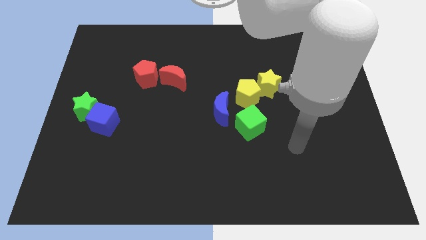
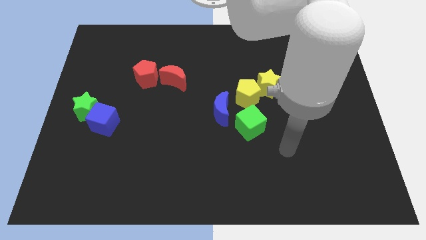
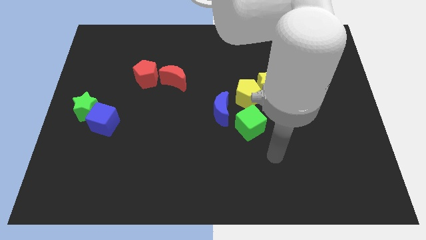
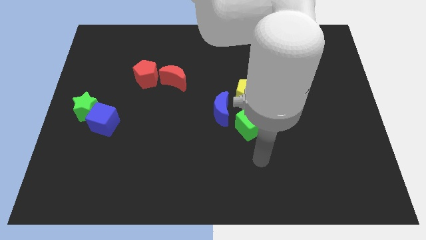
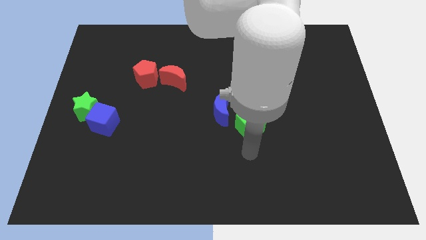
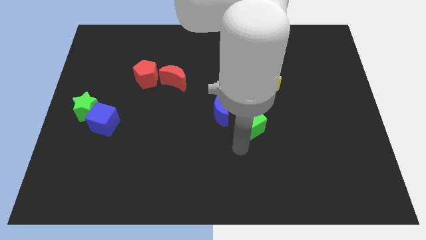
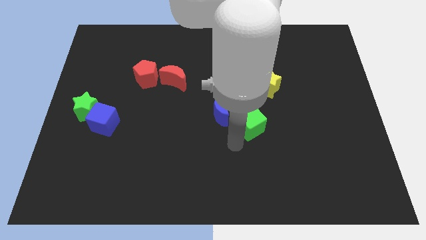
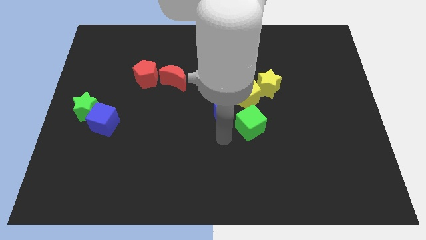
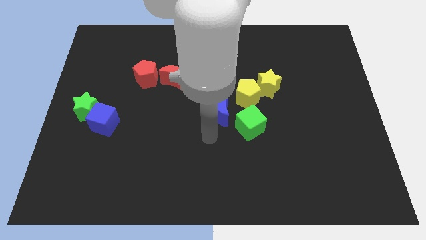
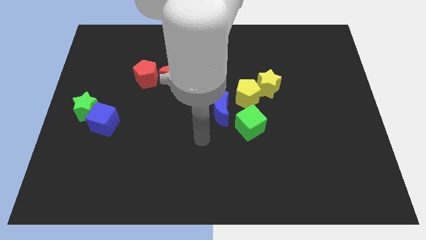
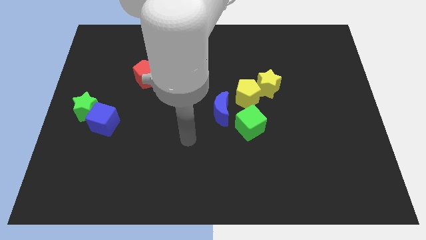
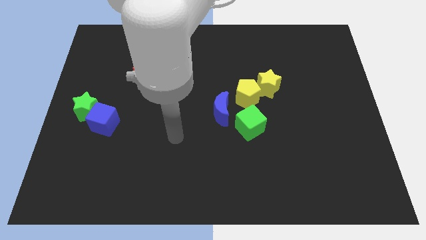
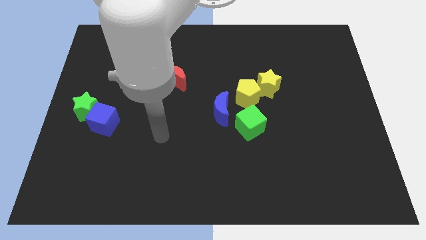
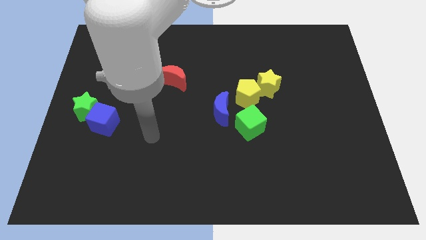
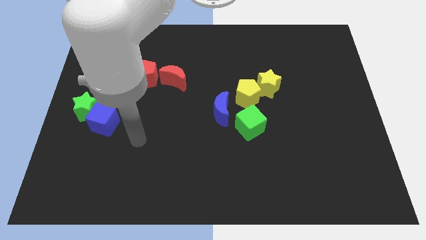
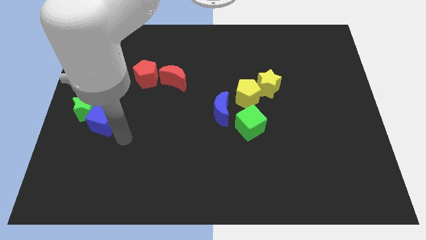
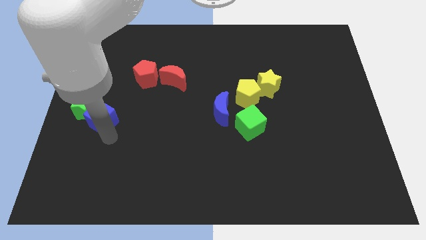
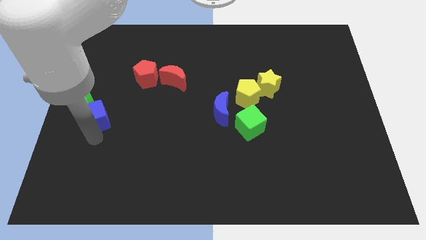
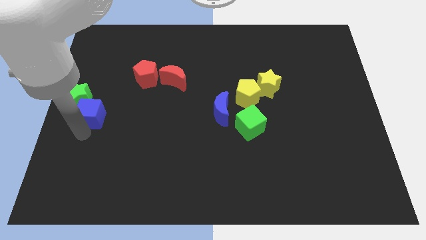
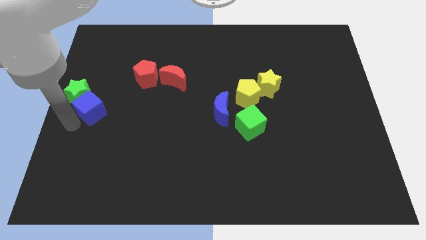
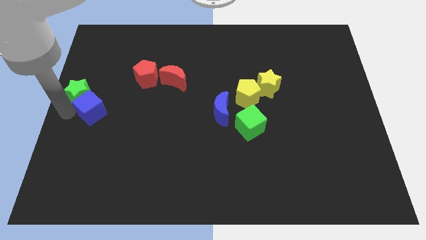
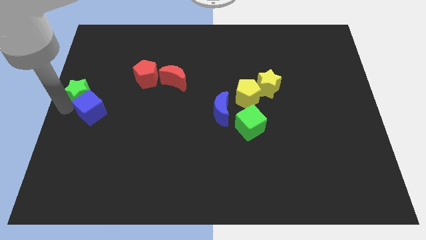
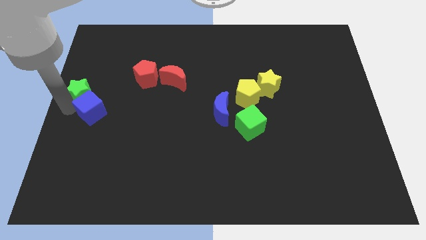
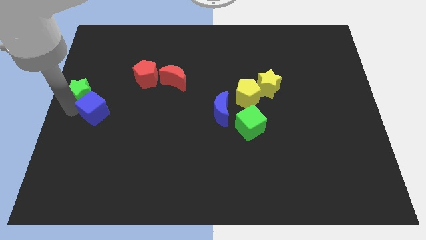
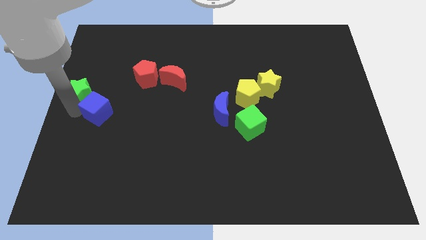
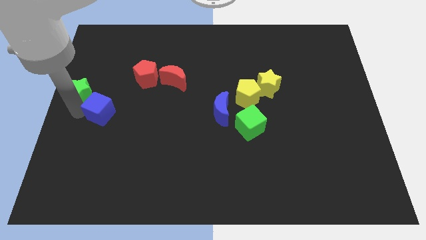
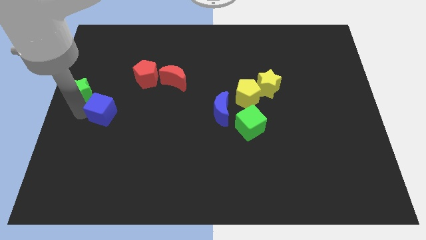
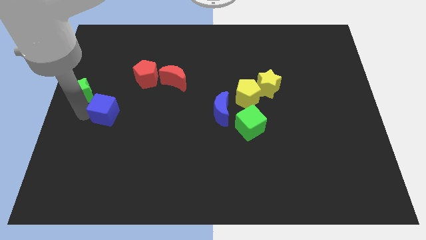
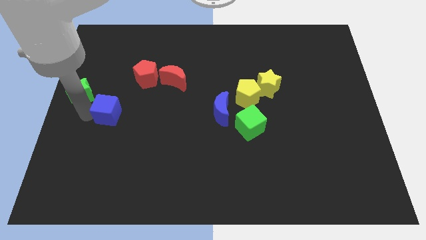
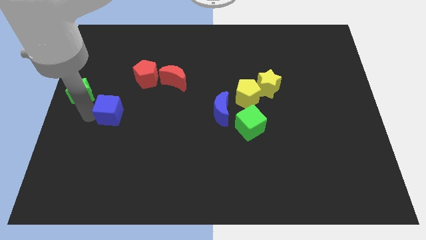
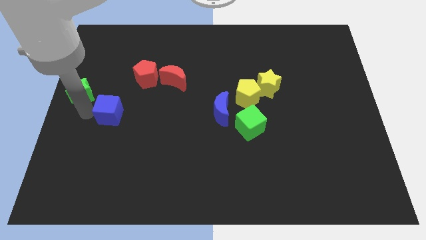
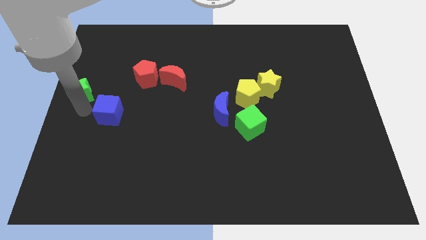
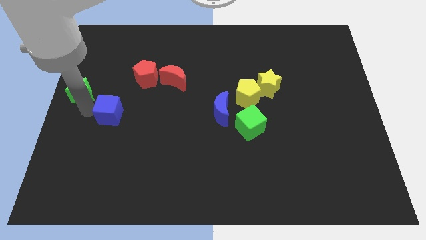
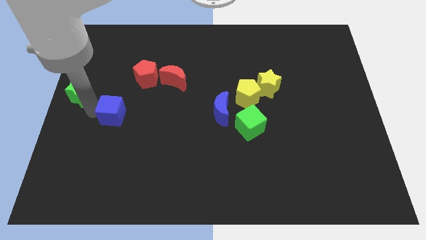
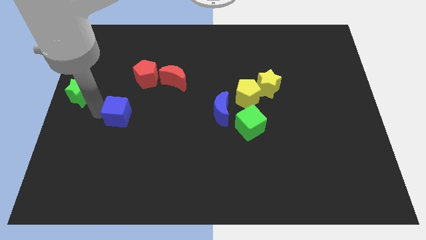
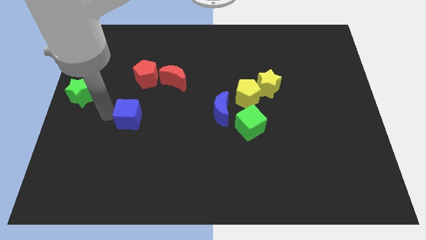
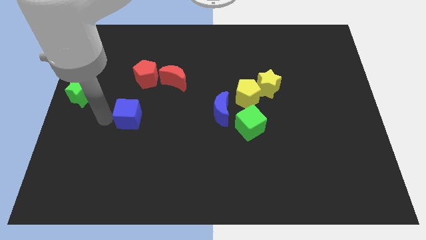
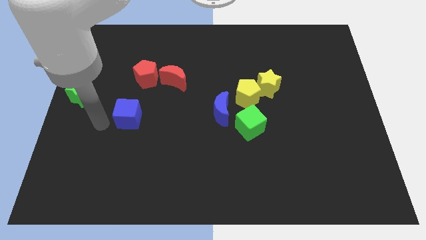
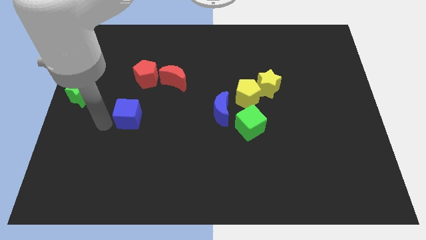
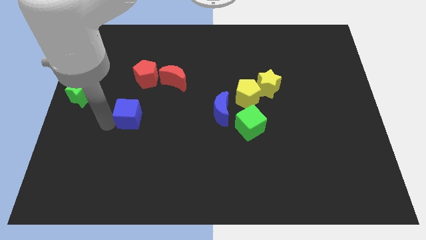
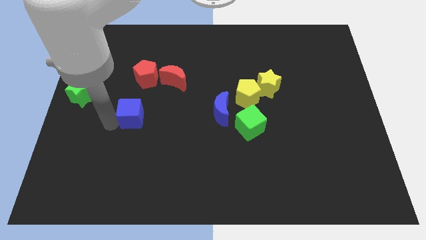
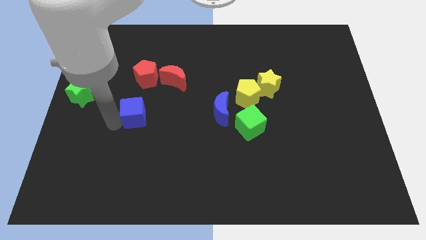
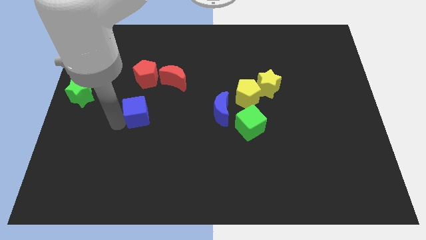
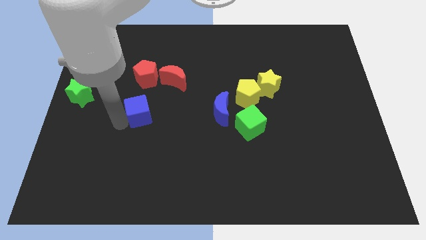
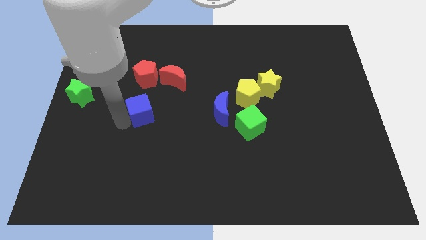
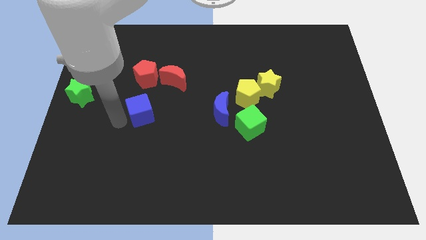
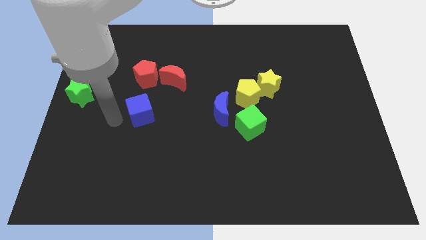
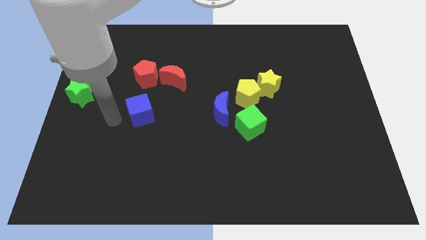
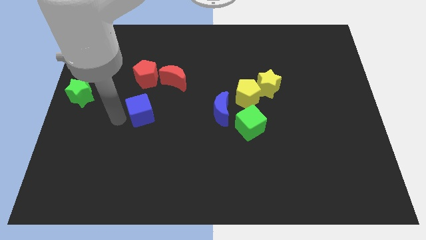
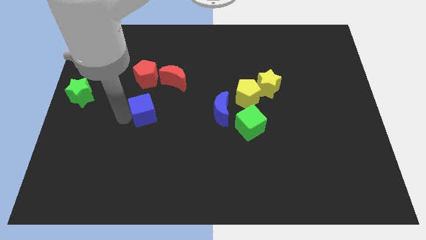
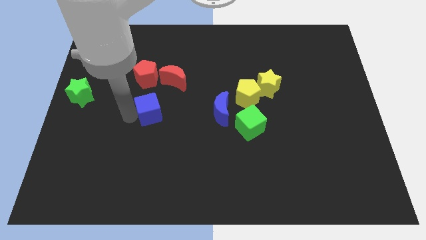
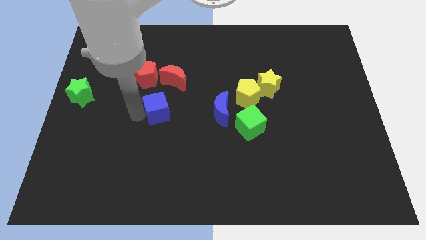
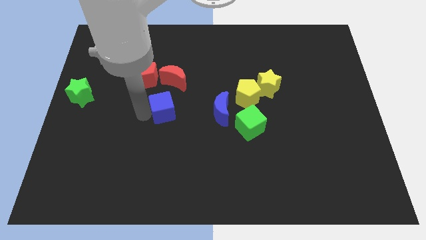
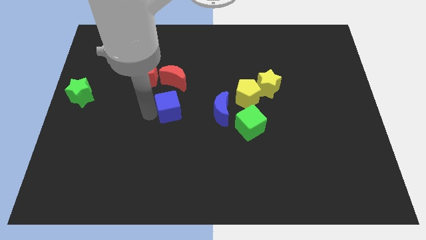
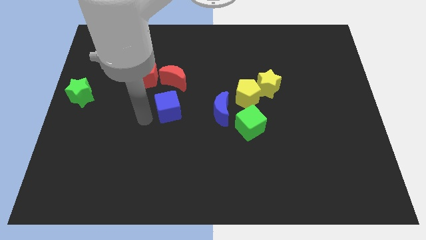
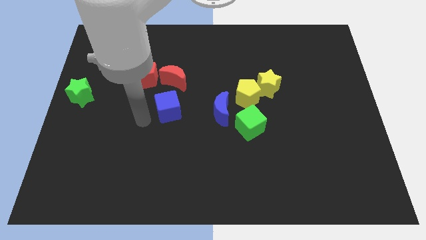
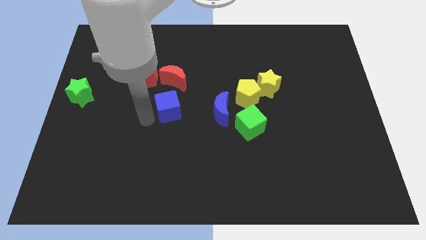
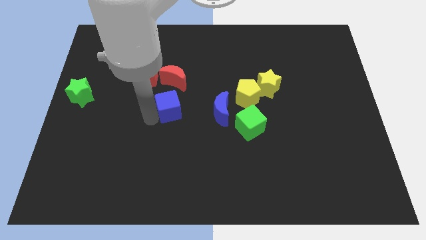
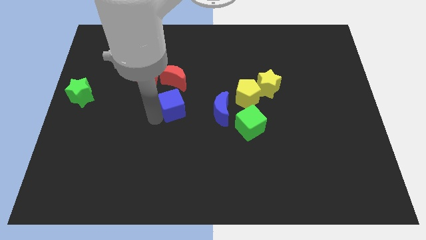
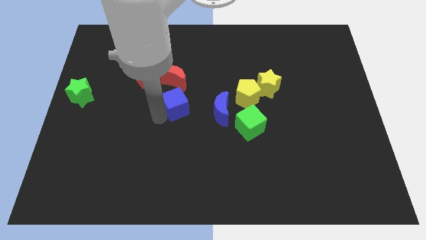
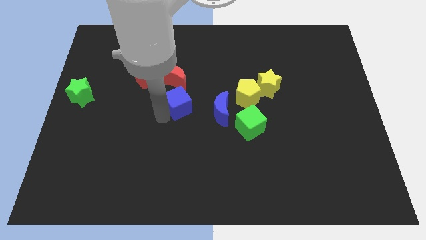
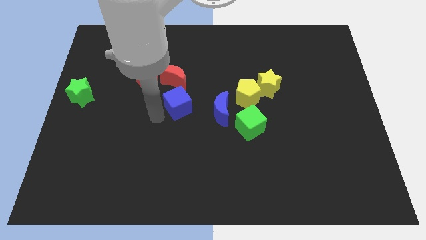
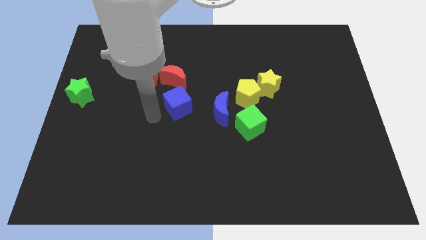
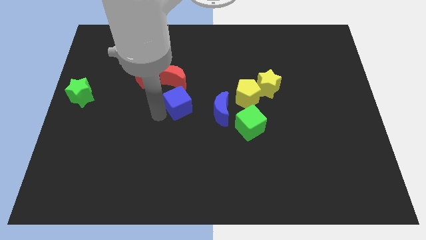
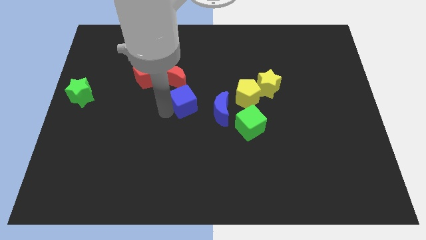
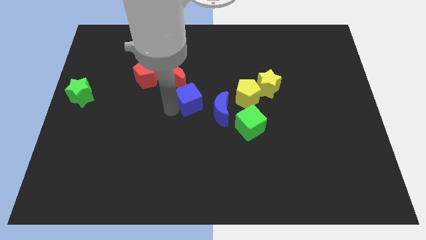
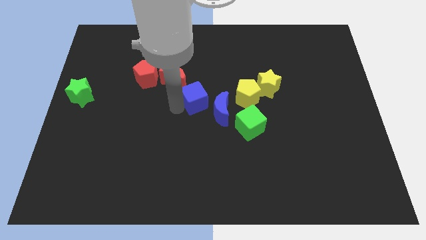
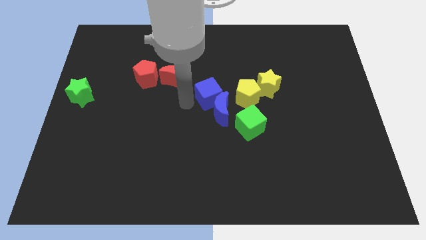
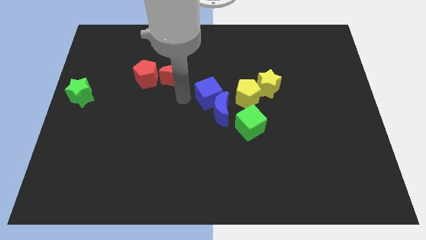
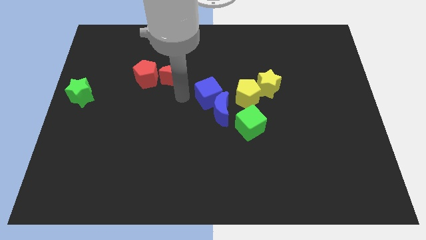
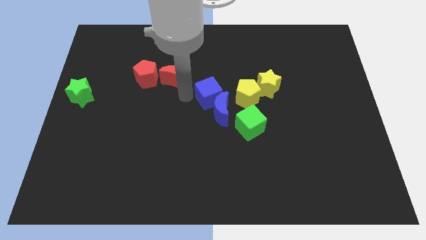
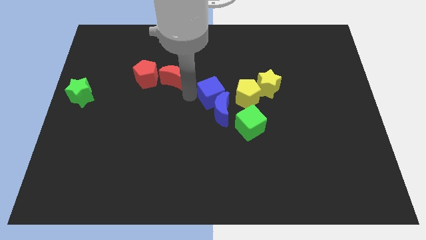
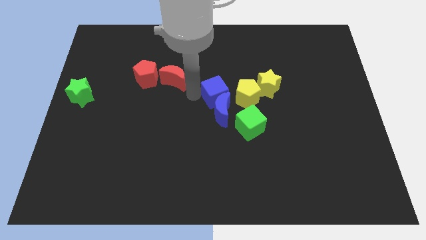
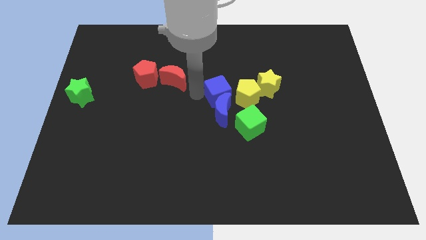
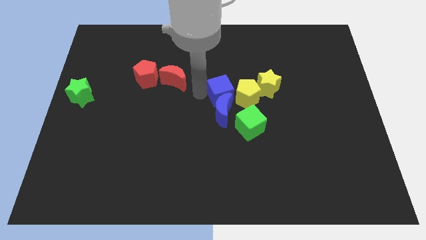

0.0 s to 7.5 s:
push the blue cube close to the yellow pentagon

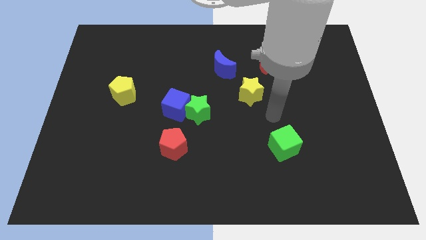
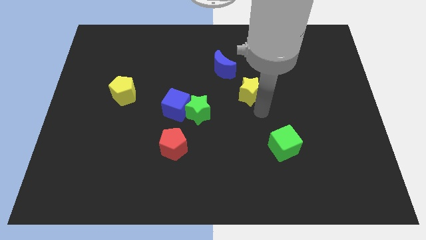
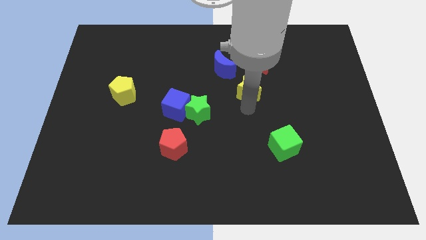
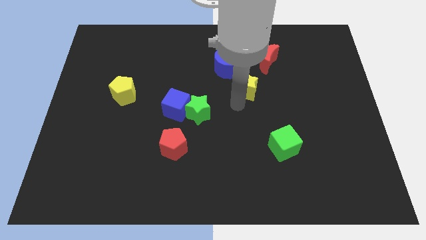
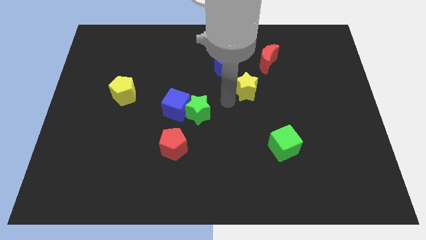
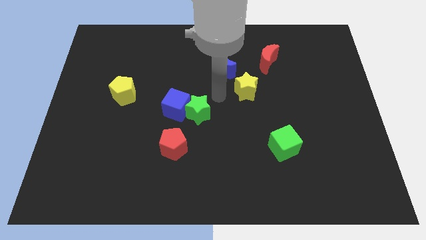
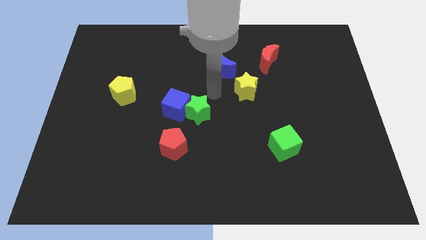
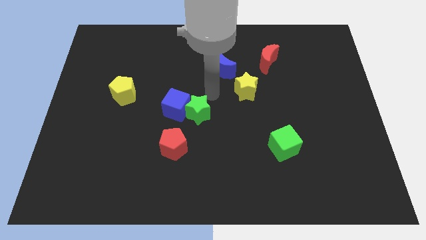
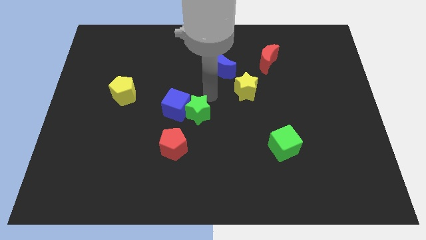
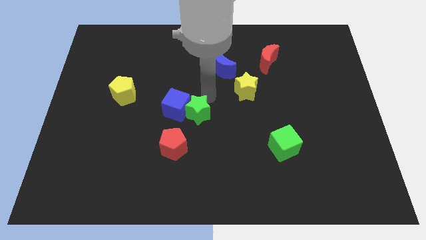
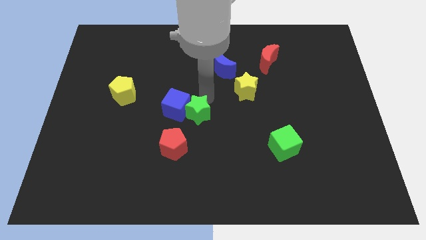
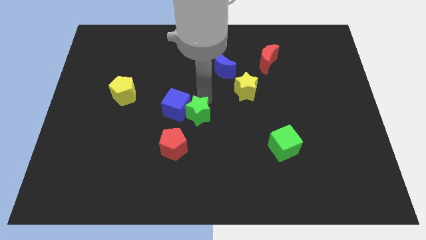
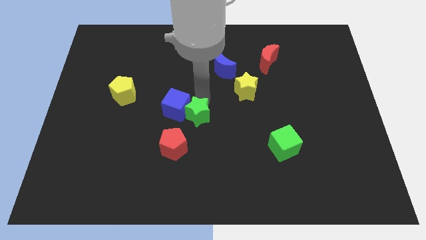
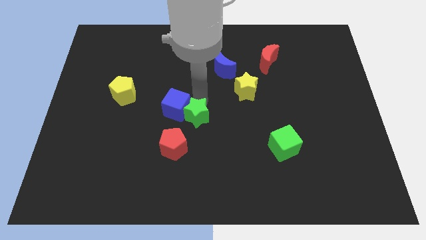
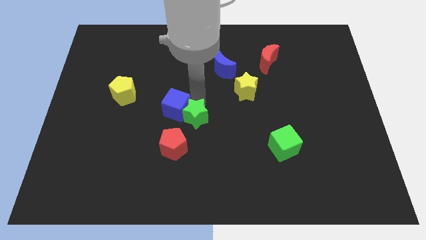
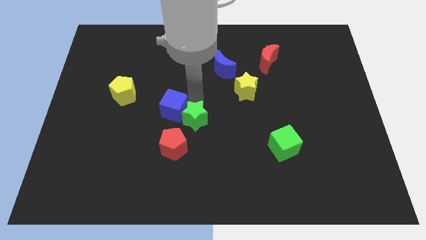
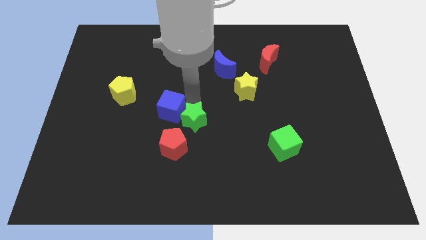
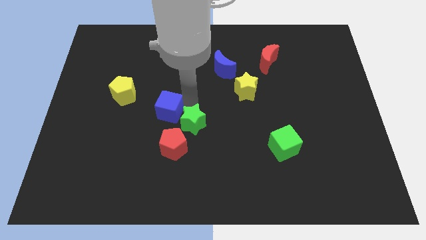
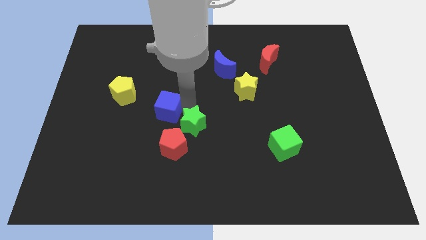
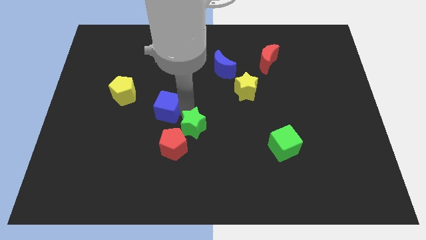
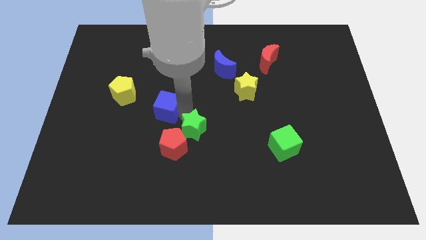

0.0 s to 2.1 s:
move the green star next to the red pentagon
